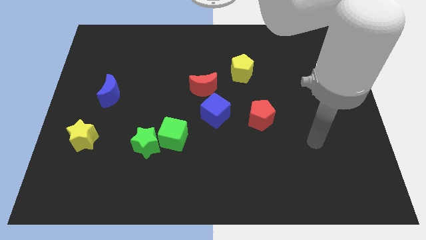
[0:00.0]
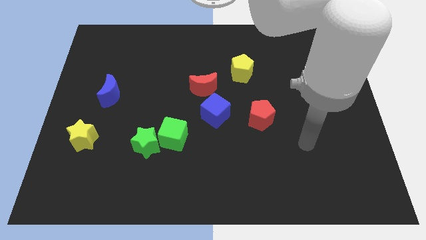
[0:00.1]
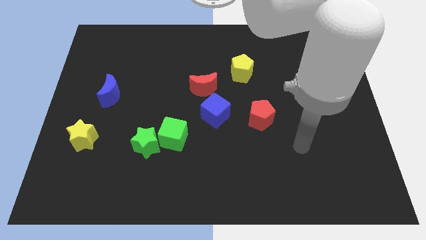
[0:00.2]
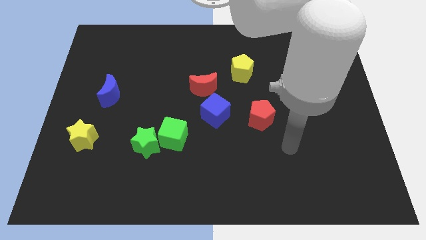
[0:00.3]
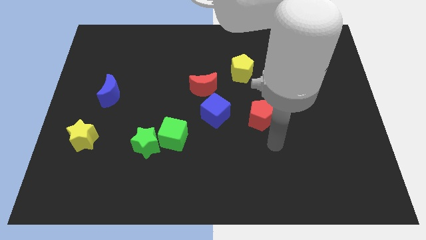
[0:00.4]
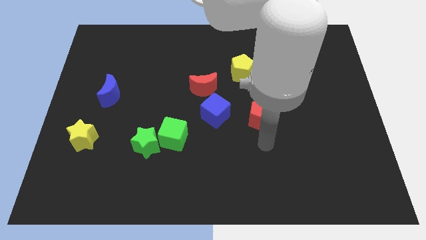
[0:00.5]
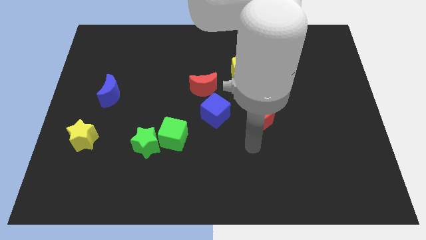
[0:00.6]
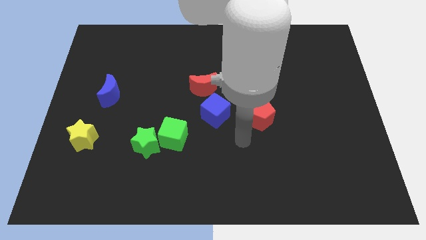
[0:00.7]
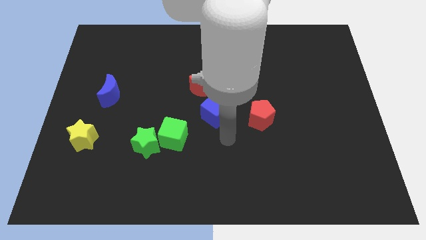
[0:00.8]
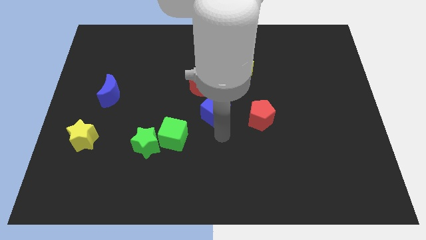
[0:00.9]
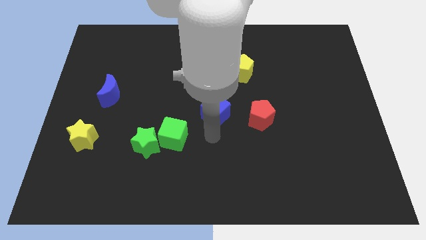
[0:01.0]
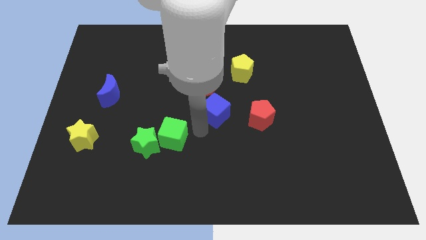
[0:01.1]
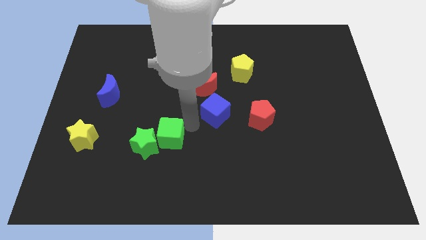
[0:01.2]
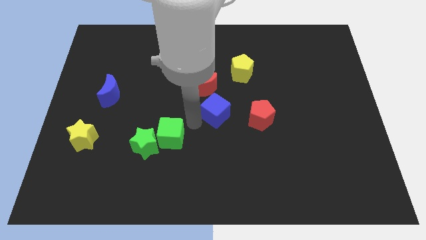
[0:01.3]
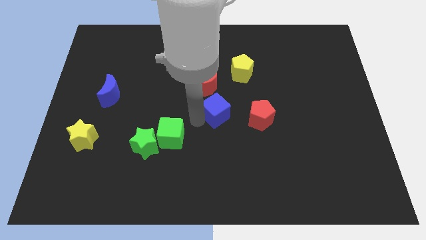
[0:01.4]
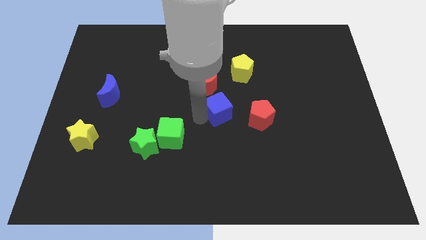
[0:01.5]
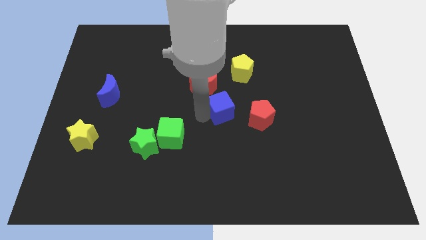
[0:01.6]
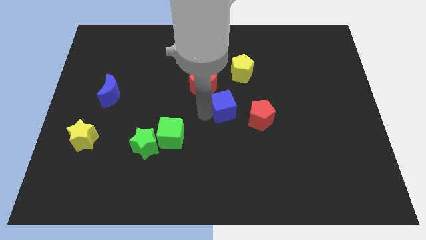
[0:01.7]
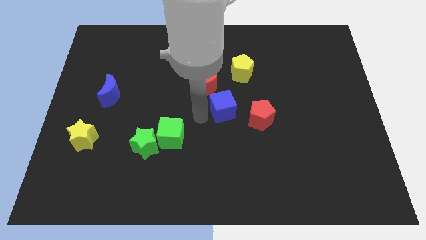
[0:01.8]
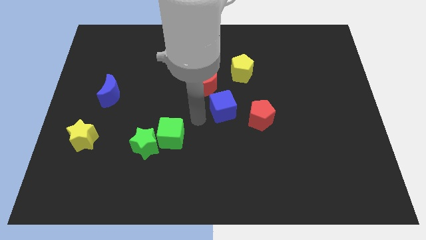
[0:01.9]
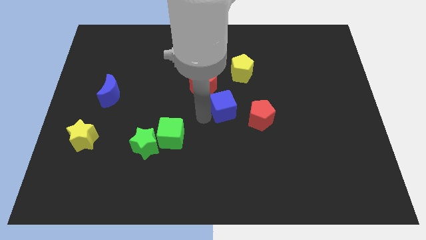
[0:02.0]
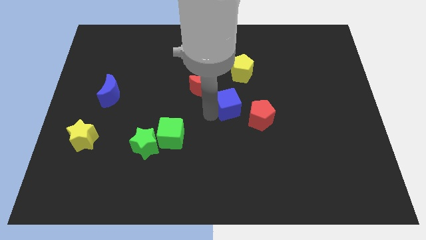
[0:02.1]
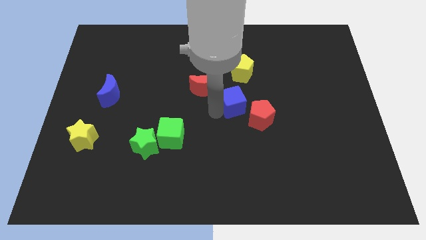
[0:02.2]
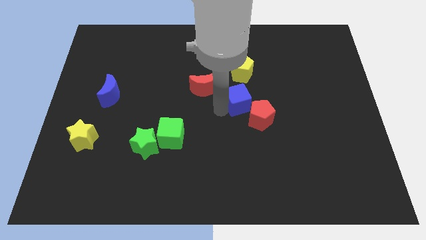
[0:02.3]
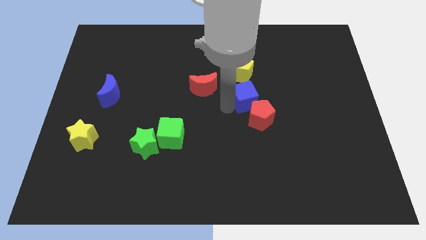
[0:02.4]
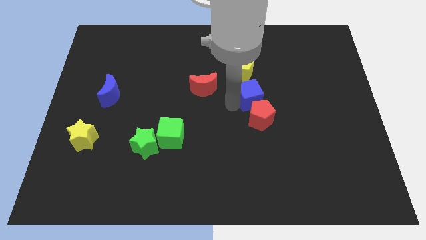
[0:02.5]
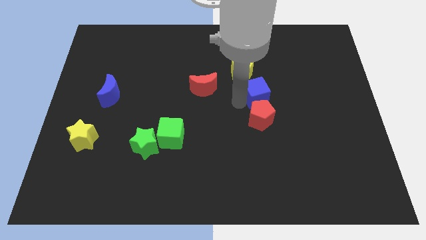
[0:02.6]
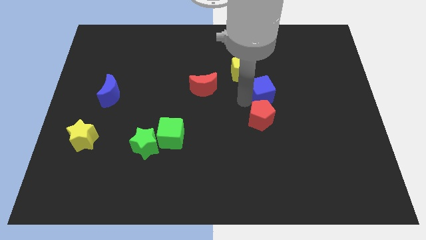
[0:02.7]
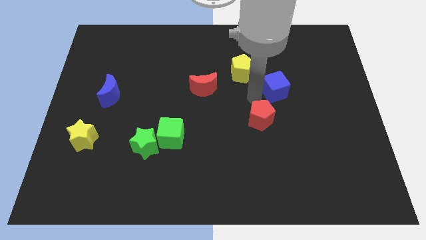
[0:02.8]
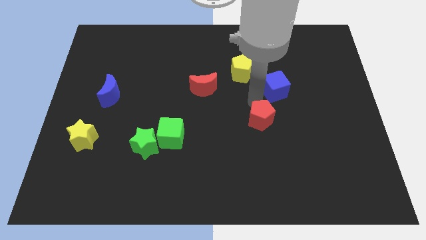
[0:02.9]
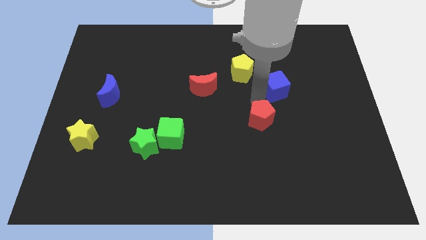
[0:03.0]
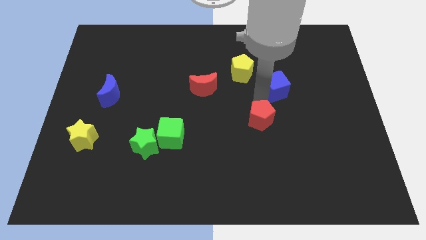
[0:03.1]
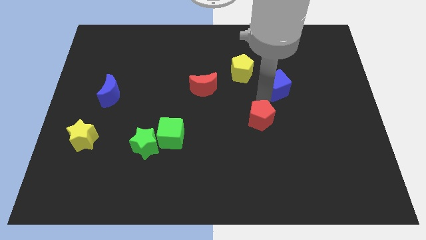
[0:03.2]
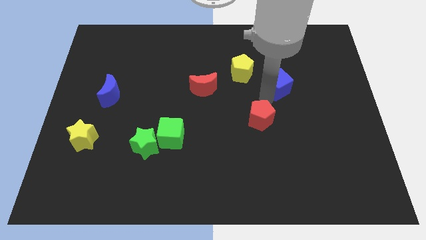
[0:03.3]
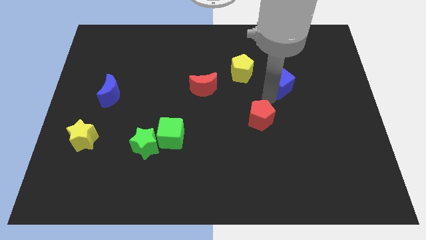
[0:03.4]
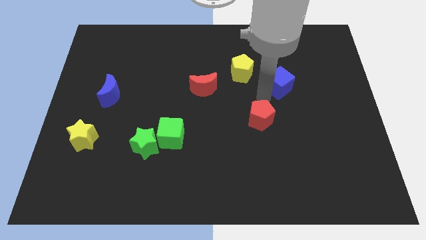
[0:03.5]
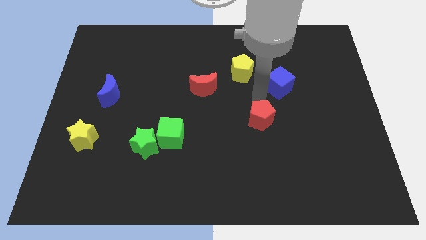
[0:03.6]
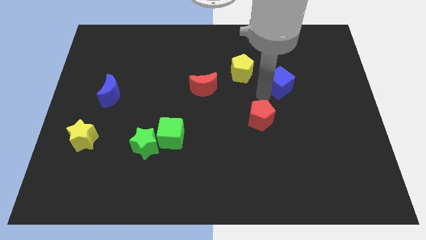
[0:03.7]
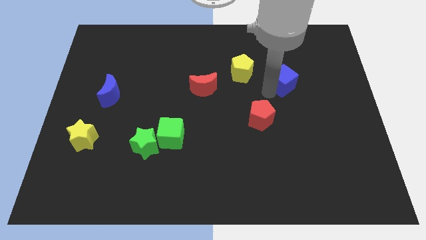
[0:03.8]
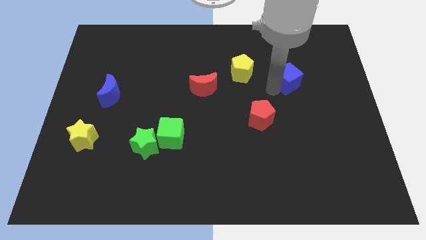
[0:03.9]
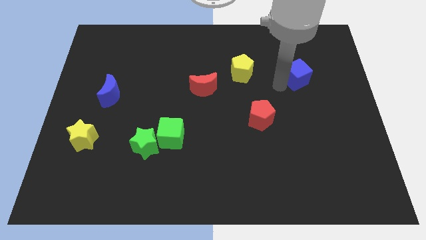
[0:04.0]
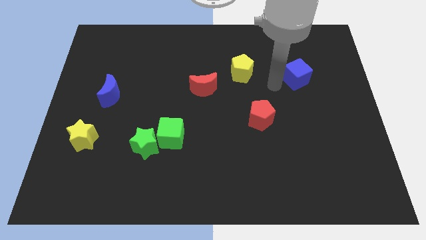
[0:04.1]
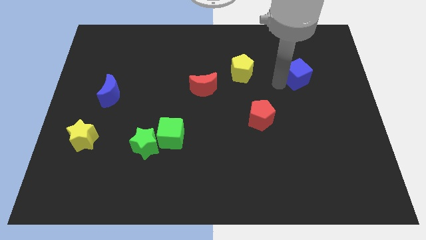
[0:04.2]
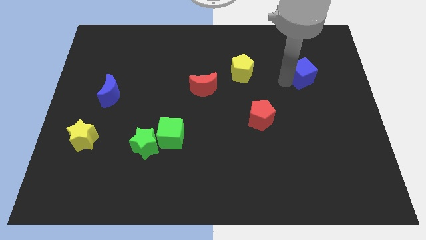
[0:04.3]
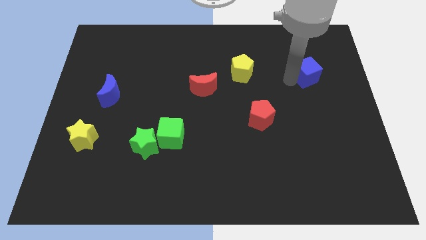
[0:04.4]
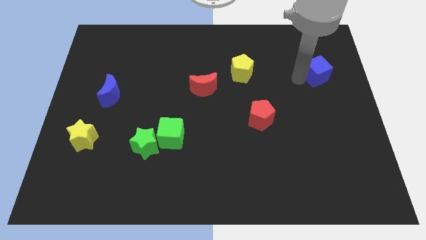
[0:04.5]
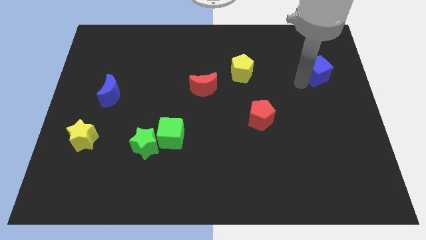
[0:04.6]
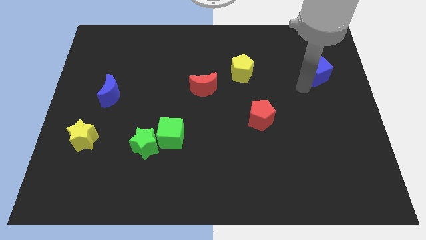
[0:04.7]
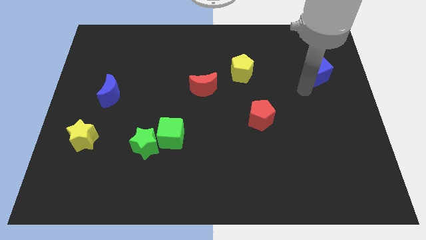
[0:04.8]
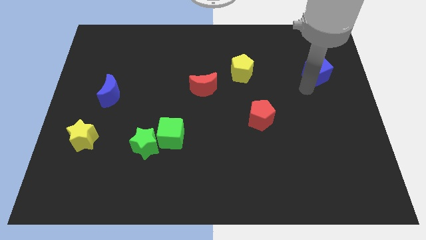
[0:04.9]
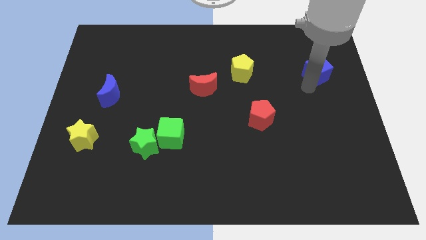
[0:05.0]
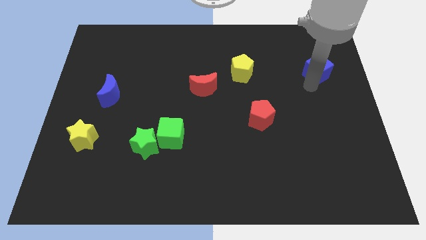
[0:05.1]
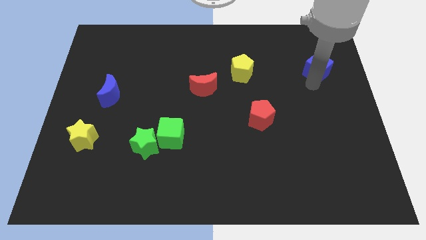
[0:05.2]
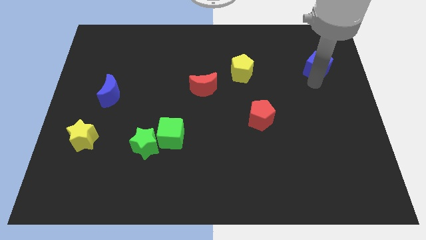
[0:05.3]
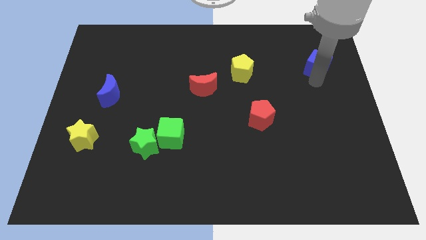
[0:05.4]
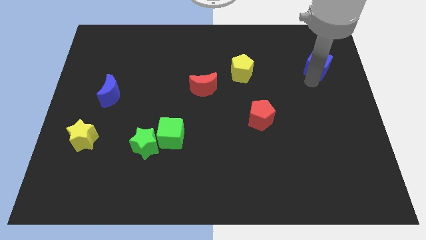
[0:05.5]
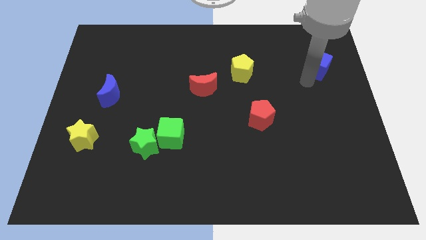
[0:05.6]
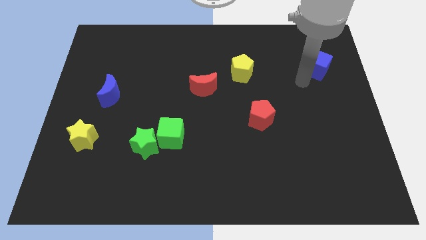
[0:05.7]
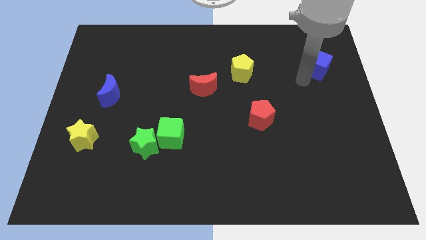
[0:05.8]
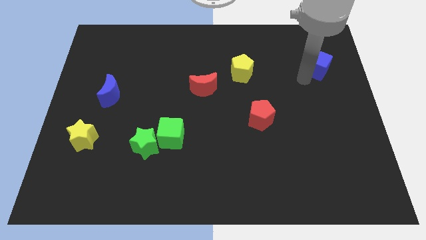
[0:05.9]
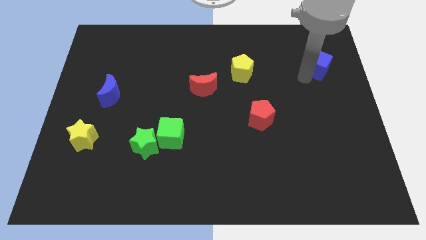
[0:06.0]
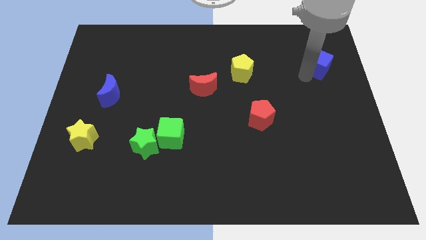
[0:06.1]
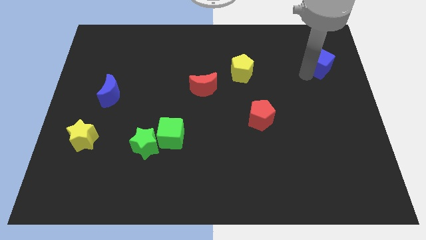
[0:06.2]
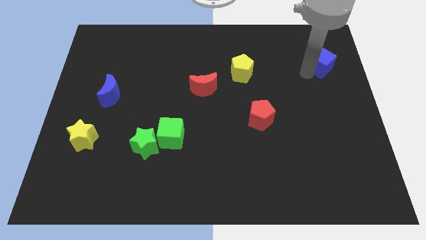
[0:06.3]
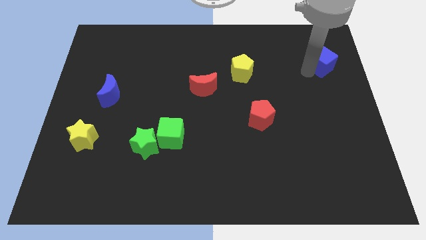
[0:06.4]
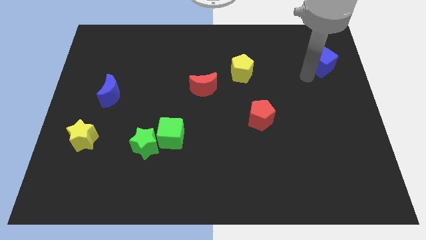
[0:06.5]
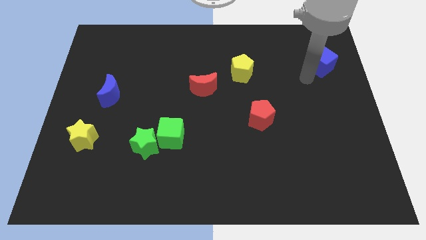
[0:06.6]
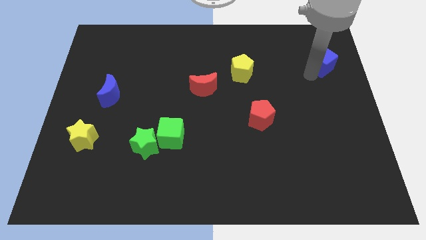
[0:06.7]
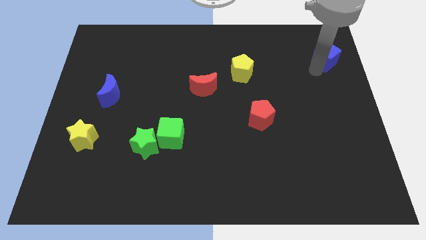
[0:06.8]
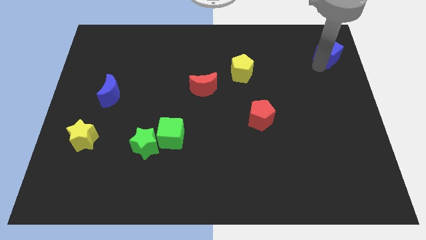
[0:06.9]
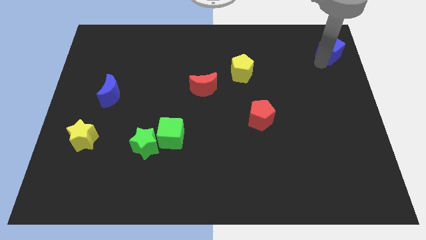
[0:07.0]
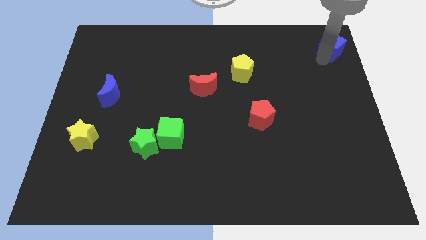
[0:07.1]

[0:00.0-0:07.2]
put the blue cube to the top right of the board
